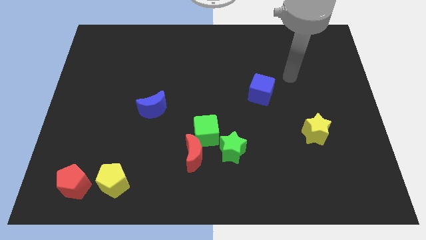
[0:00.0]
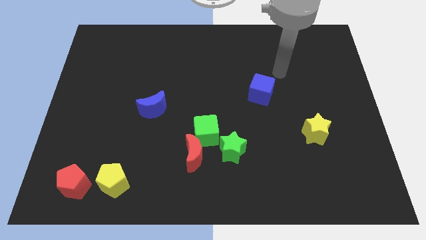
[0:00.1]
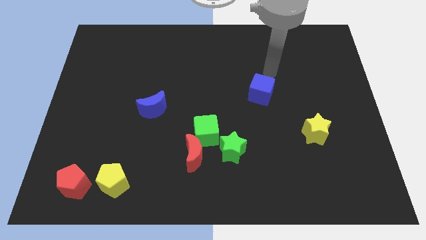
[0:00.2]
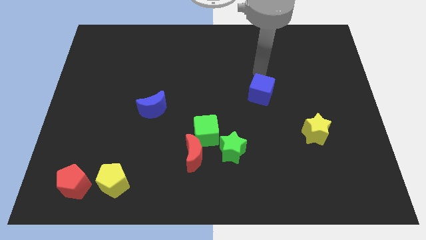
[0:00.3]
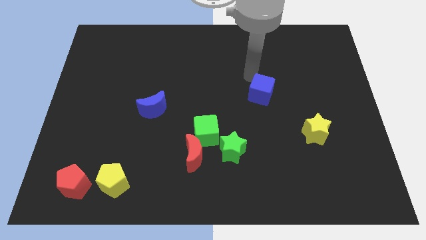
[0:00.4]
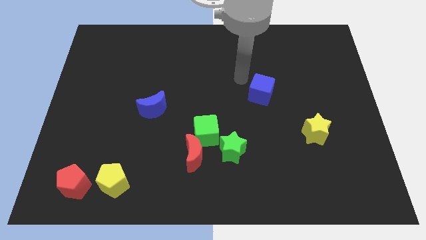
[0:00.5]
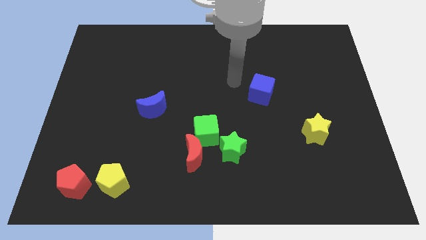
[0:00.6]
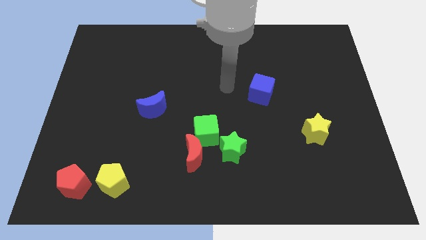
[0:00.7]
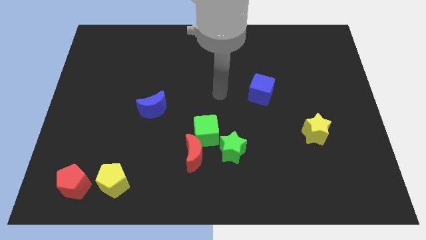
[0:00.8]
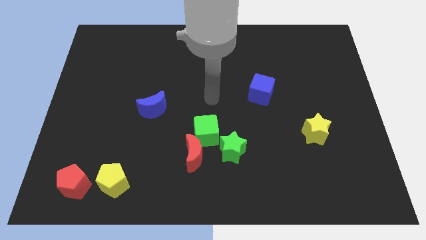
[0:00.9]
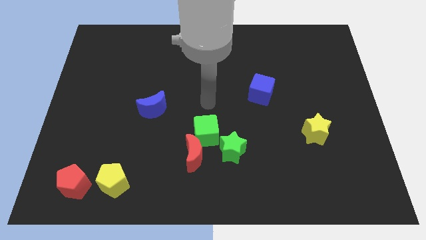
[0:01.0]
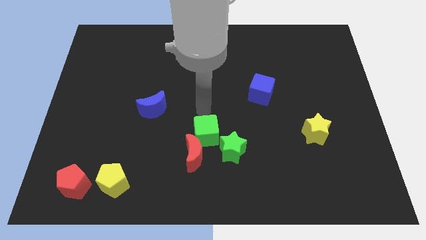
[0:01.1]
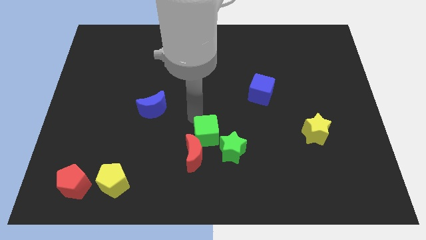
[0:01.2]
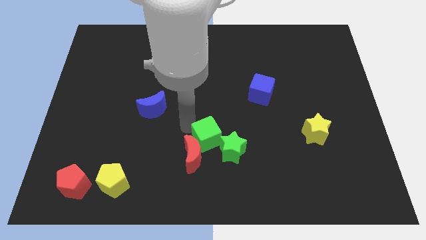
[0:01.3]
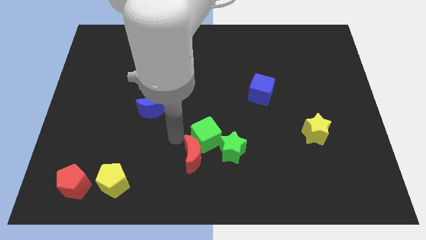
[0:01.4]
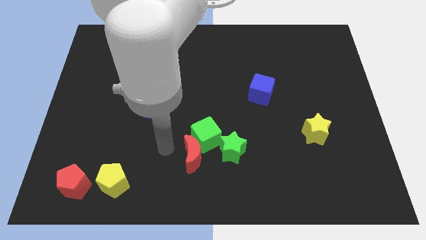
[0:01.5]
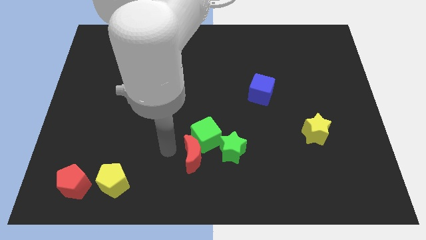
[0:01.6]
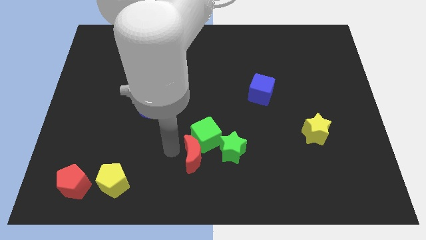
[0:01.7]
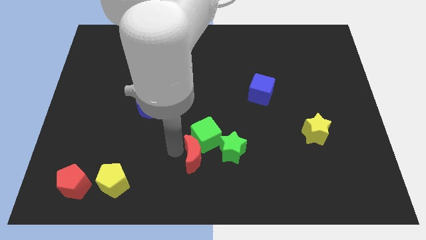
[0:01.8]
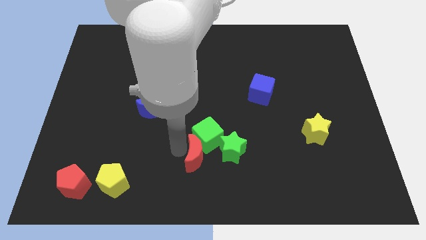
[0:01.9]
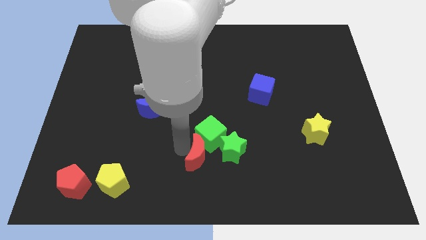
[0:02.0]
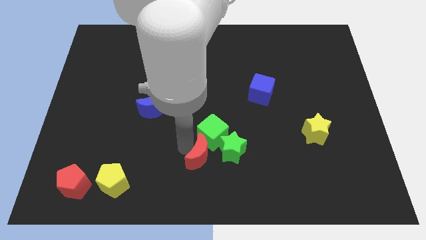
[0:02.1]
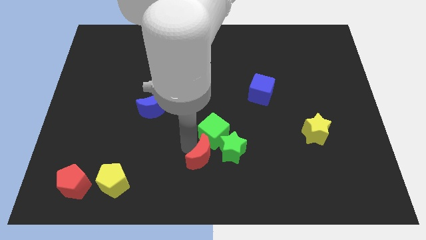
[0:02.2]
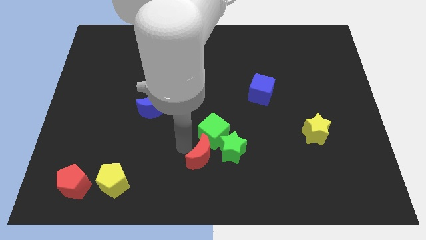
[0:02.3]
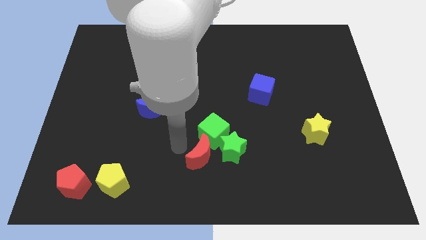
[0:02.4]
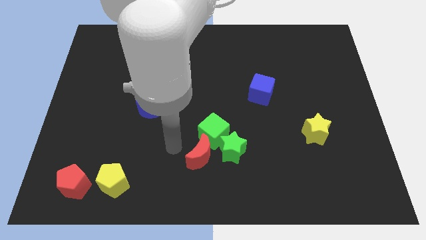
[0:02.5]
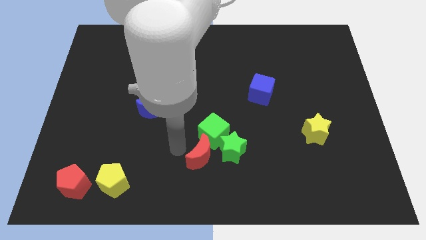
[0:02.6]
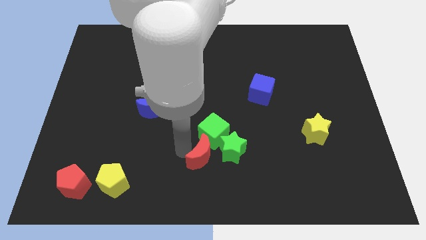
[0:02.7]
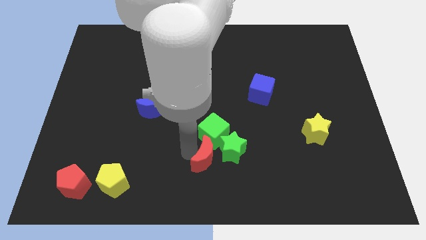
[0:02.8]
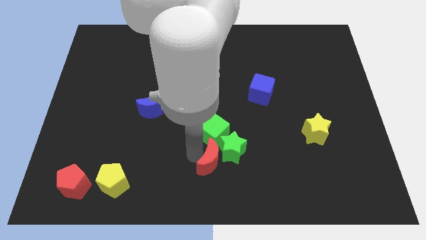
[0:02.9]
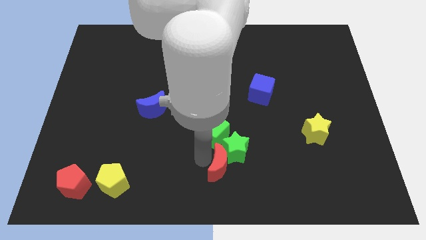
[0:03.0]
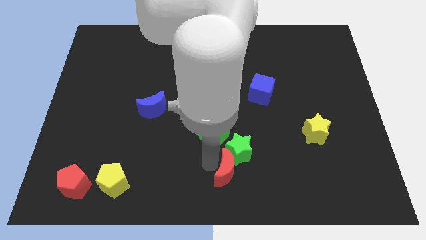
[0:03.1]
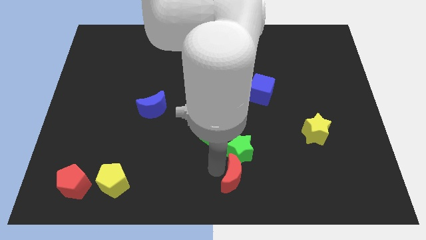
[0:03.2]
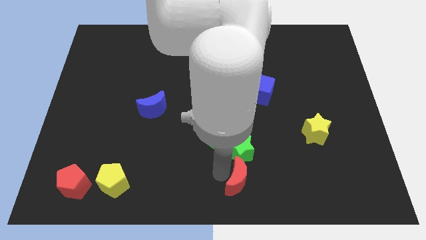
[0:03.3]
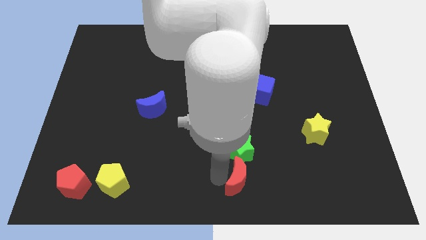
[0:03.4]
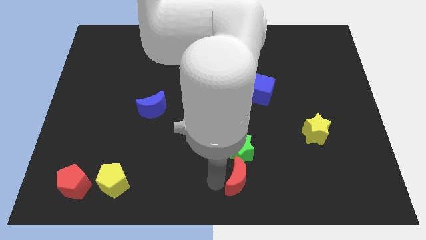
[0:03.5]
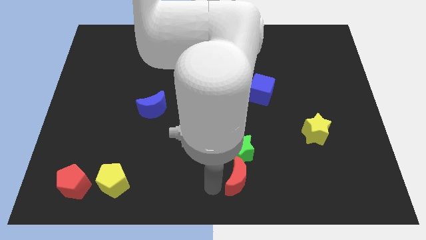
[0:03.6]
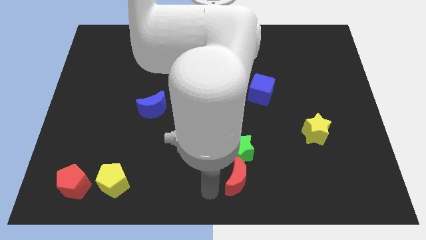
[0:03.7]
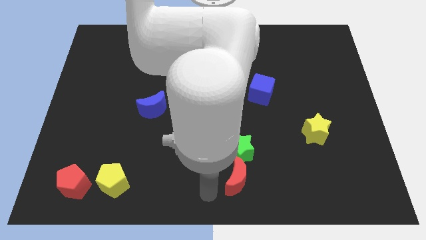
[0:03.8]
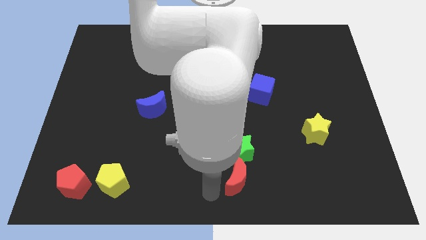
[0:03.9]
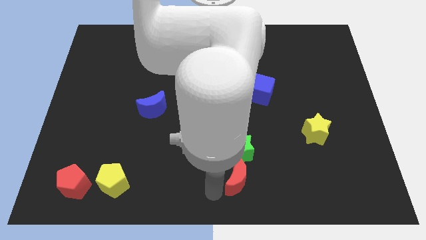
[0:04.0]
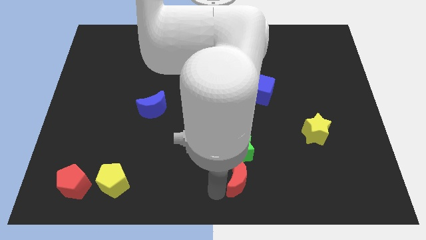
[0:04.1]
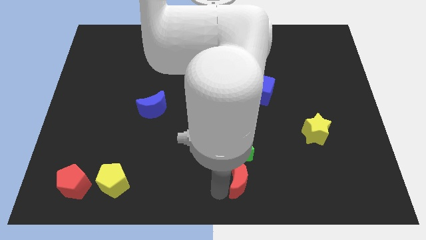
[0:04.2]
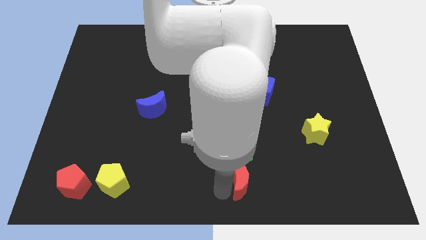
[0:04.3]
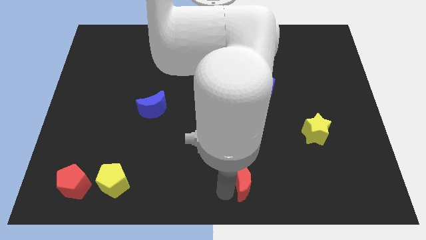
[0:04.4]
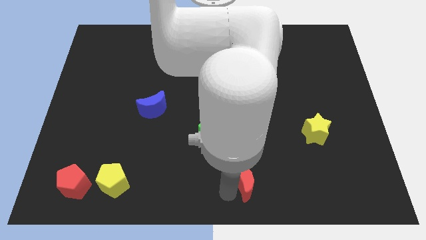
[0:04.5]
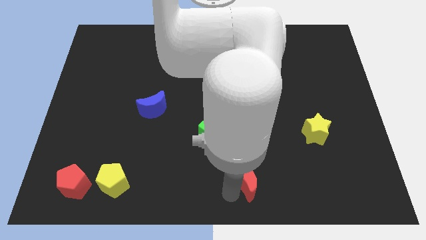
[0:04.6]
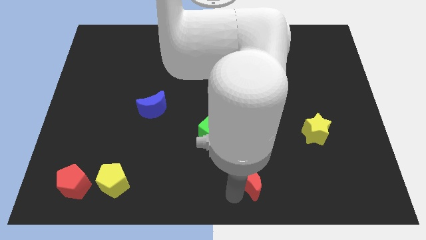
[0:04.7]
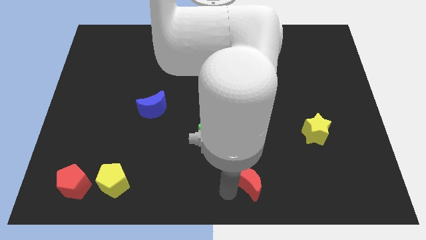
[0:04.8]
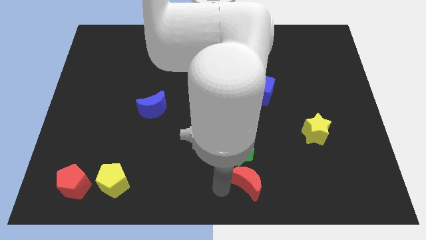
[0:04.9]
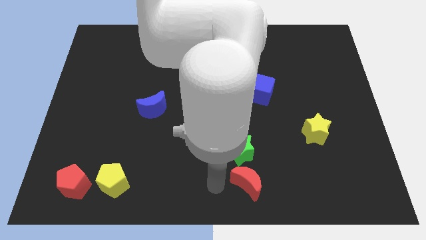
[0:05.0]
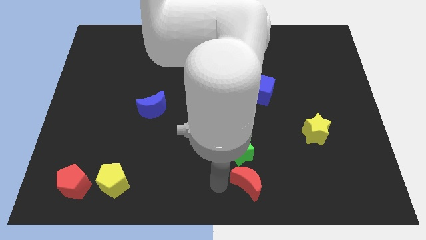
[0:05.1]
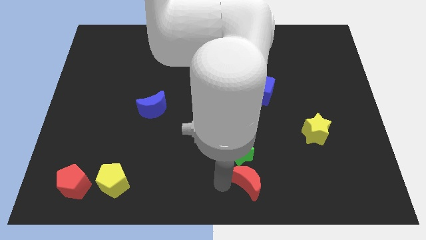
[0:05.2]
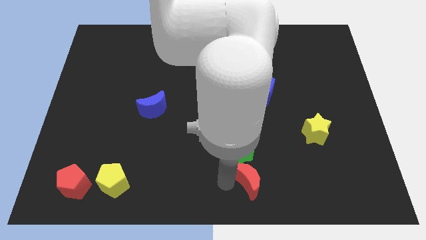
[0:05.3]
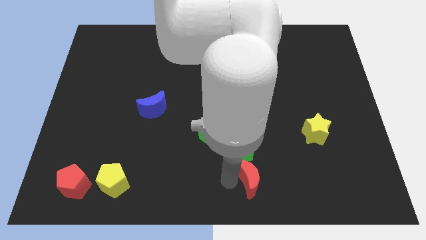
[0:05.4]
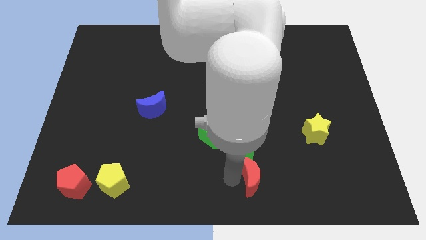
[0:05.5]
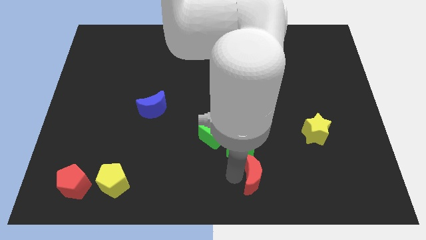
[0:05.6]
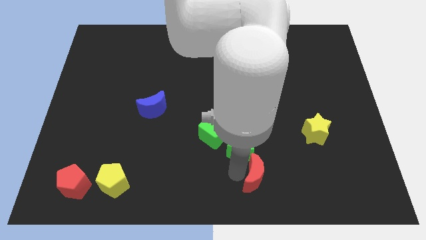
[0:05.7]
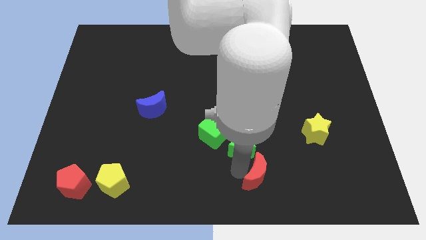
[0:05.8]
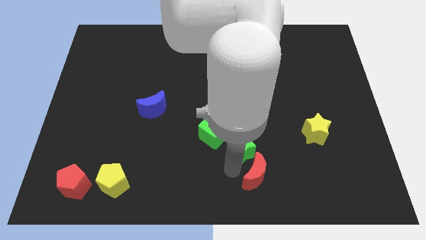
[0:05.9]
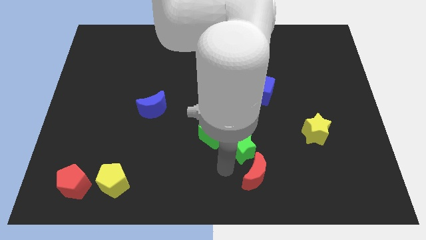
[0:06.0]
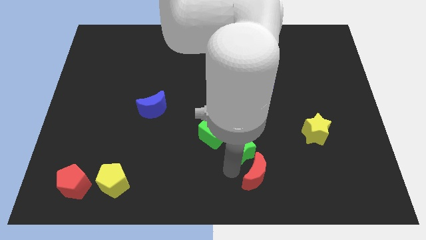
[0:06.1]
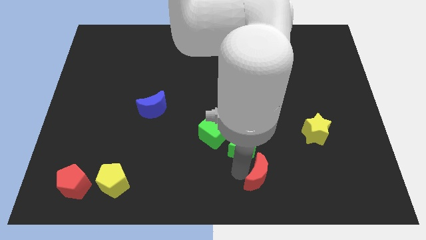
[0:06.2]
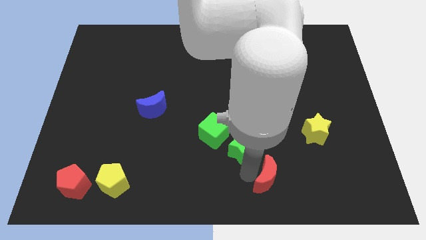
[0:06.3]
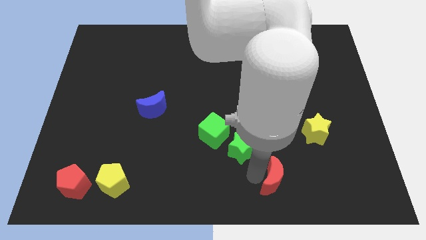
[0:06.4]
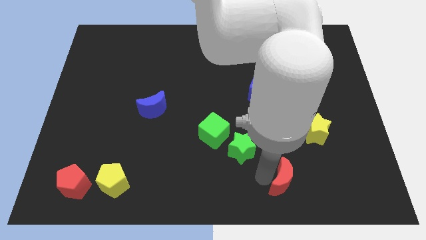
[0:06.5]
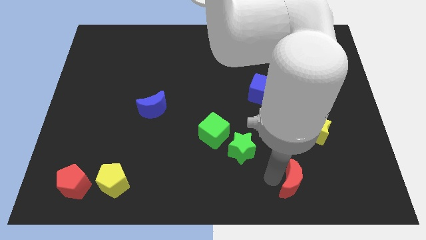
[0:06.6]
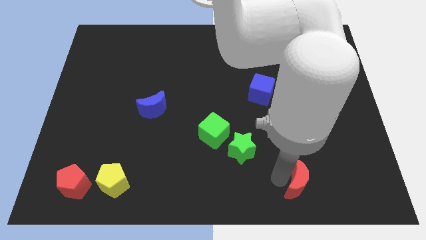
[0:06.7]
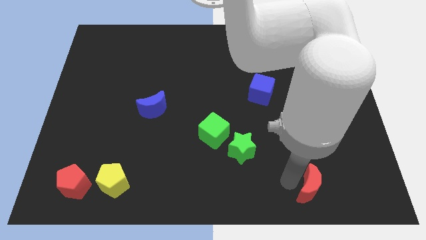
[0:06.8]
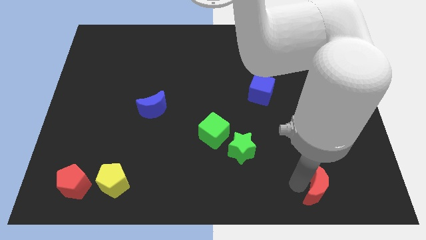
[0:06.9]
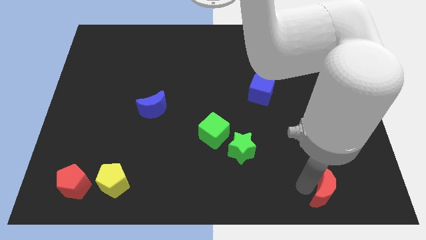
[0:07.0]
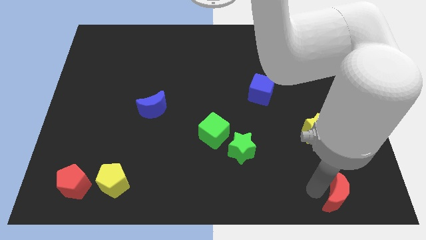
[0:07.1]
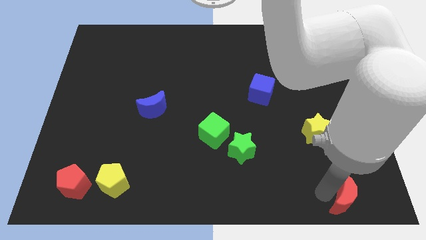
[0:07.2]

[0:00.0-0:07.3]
slide the red moon to the bottom right corner
